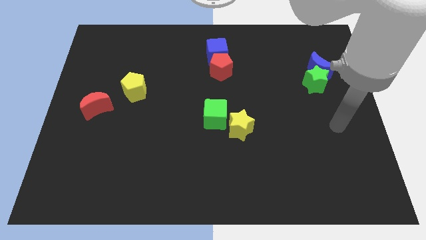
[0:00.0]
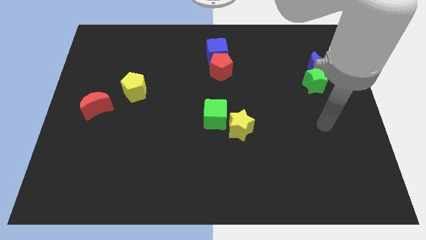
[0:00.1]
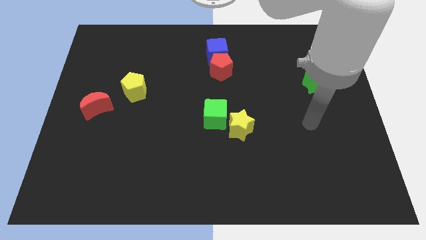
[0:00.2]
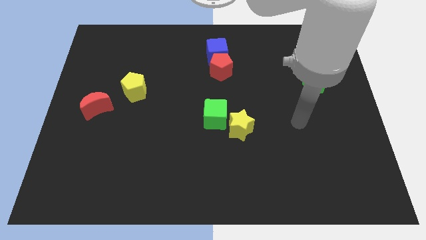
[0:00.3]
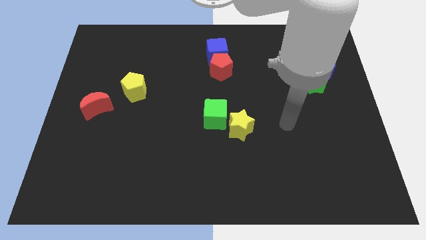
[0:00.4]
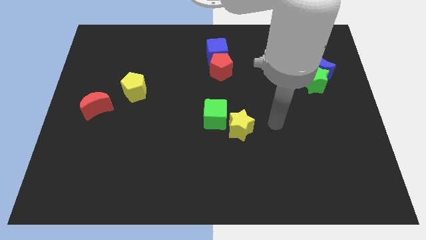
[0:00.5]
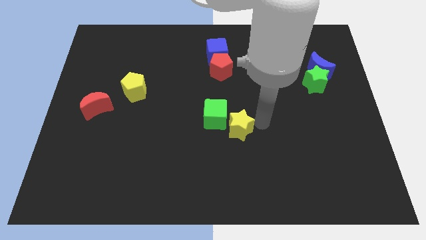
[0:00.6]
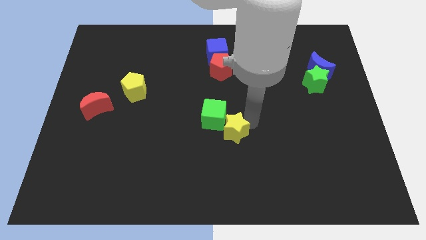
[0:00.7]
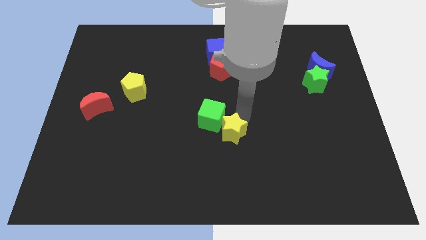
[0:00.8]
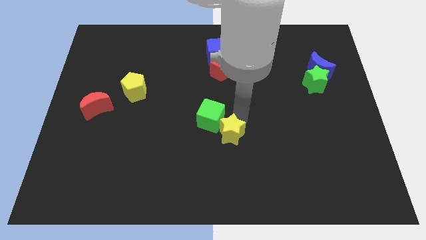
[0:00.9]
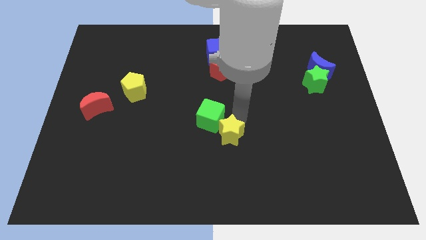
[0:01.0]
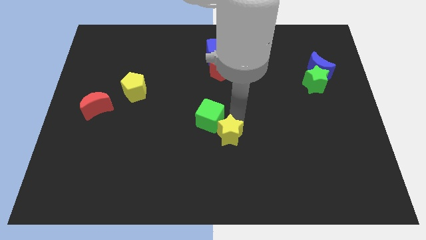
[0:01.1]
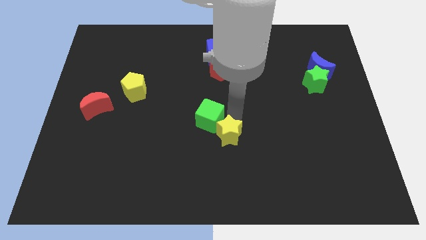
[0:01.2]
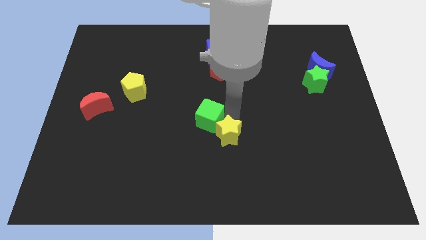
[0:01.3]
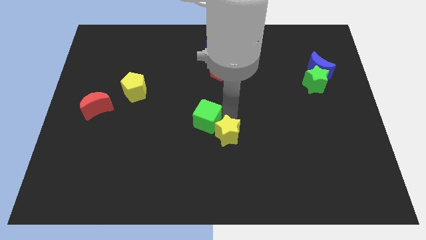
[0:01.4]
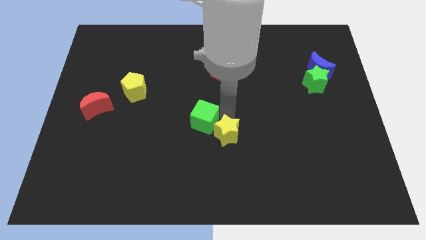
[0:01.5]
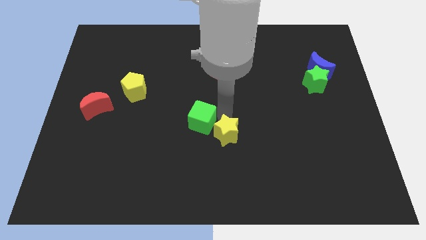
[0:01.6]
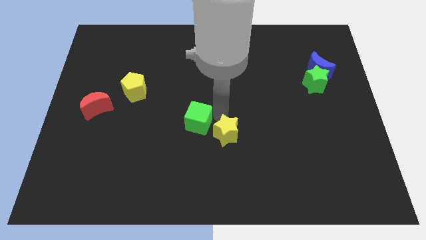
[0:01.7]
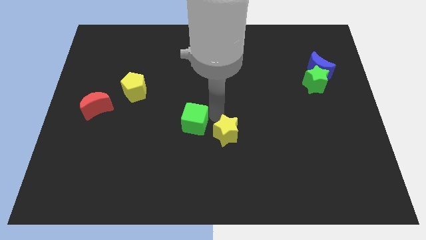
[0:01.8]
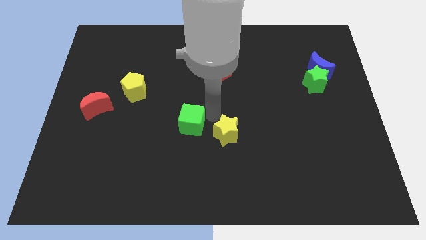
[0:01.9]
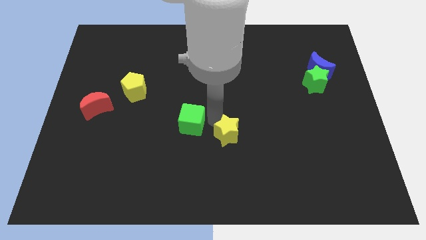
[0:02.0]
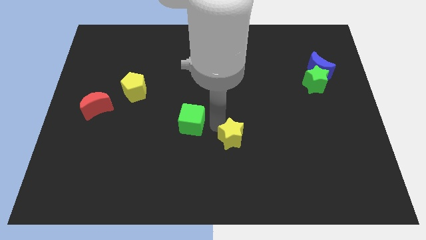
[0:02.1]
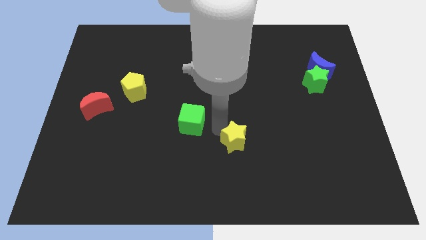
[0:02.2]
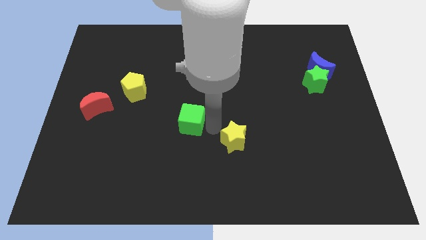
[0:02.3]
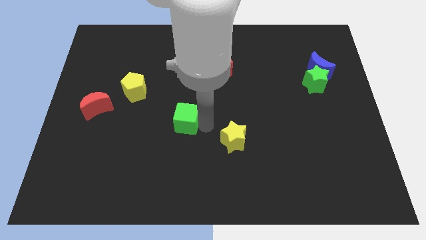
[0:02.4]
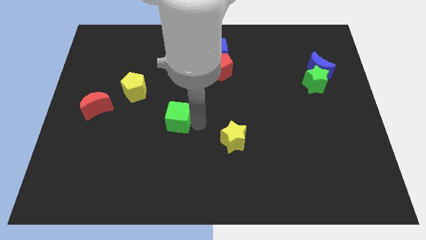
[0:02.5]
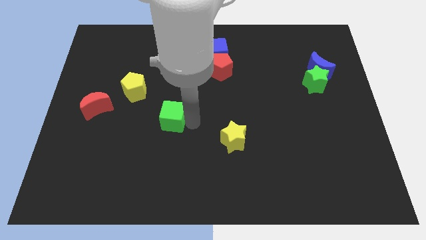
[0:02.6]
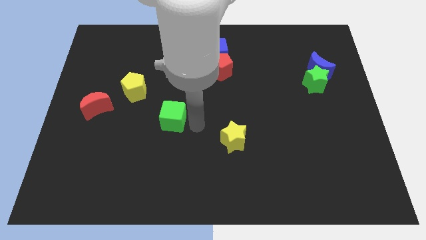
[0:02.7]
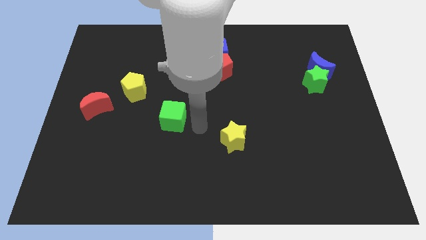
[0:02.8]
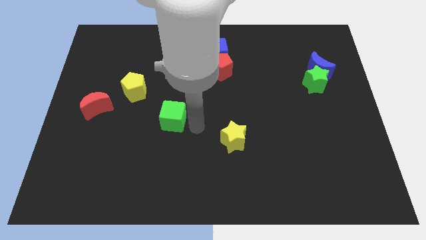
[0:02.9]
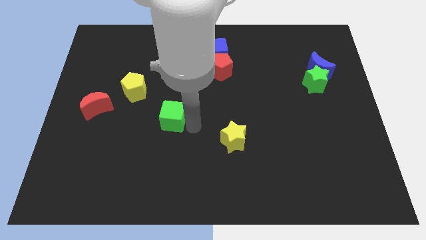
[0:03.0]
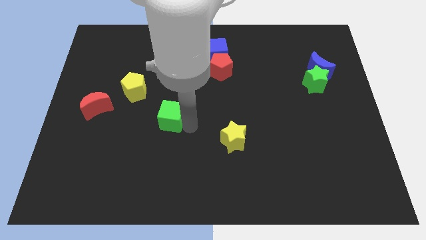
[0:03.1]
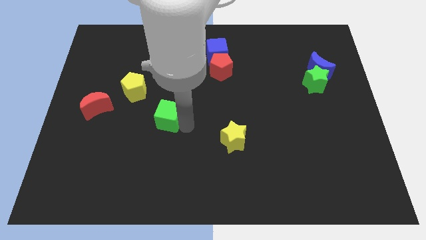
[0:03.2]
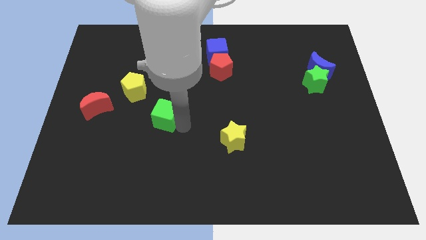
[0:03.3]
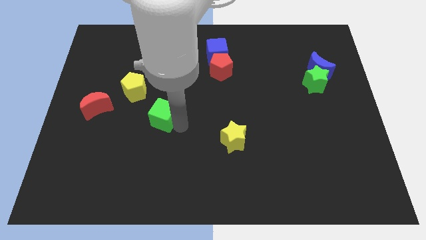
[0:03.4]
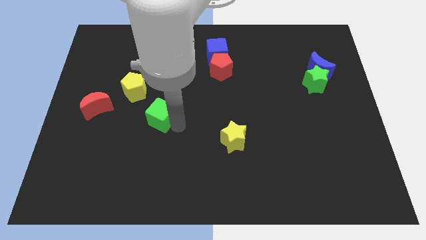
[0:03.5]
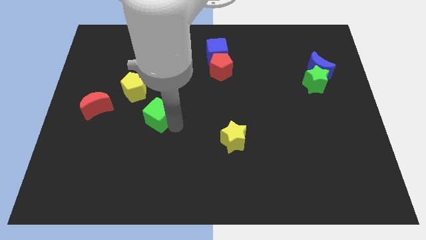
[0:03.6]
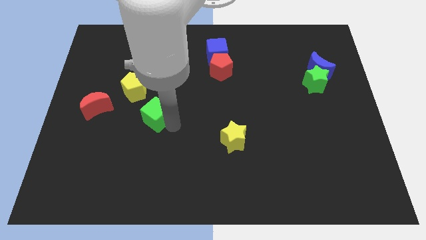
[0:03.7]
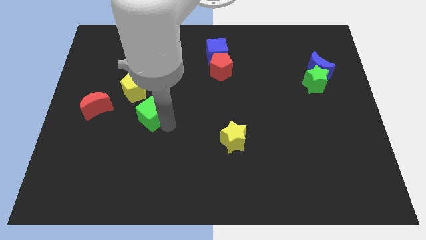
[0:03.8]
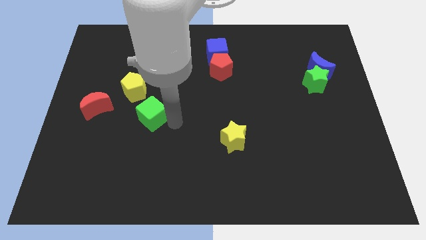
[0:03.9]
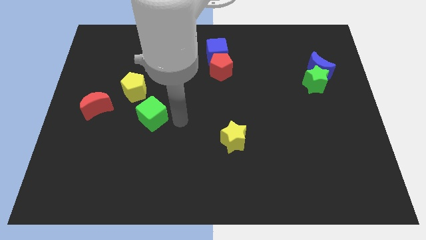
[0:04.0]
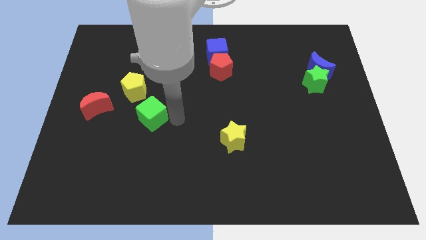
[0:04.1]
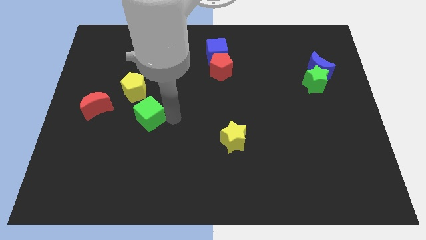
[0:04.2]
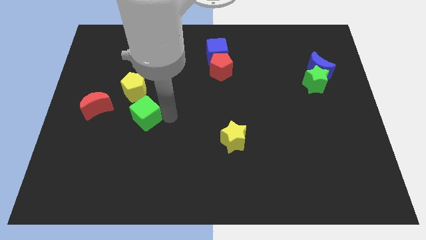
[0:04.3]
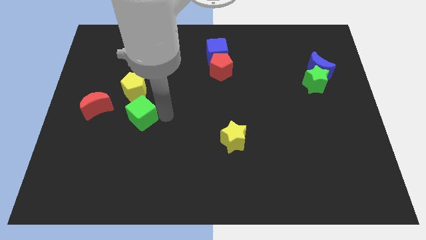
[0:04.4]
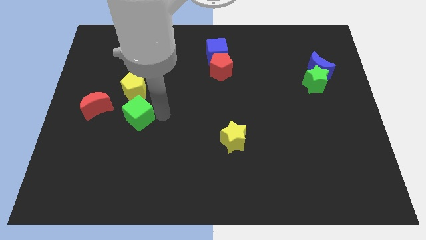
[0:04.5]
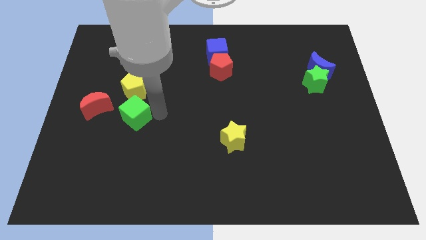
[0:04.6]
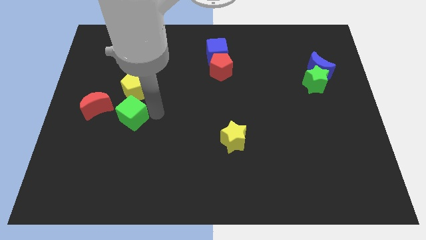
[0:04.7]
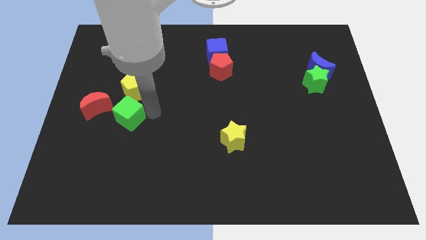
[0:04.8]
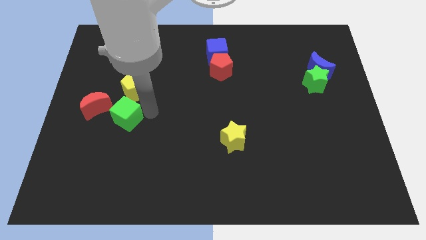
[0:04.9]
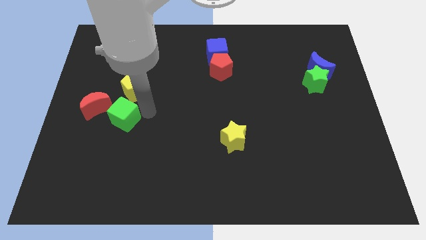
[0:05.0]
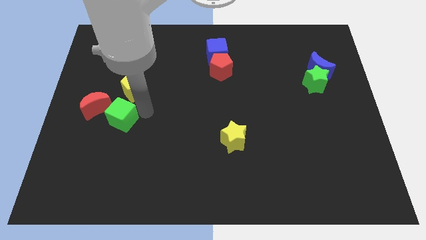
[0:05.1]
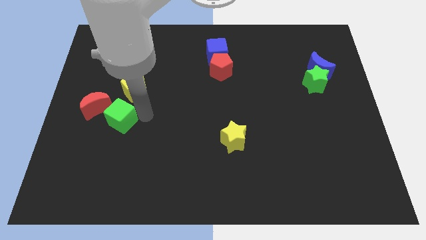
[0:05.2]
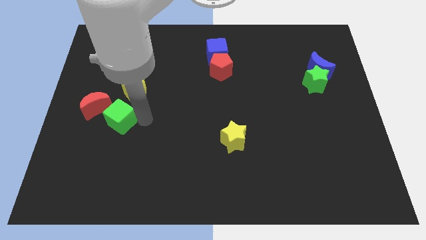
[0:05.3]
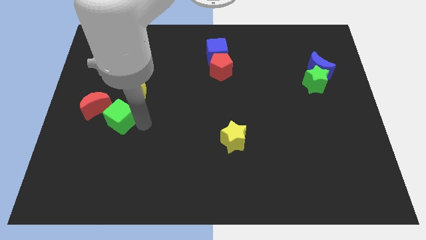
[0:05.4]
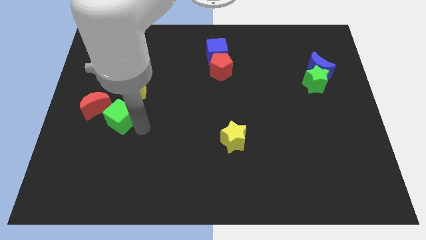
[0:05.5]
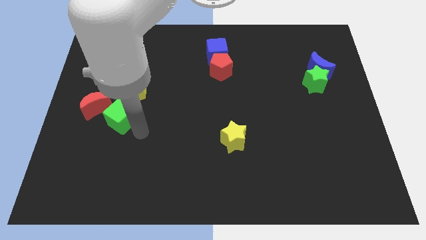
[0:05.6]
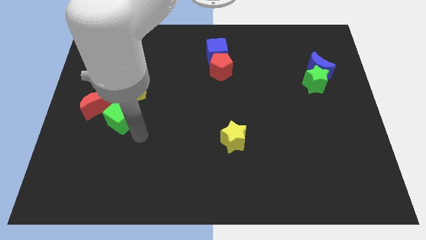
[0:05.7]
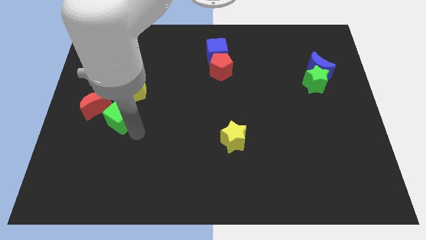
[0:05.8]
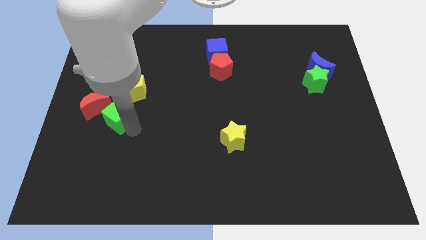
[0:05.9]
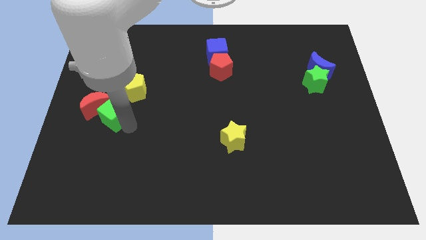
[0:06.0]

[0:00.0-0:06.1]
slide the green cube close to the red moon

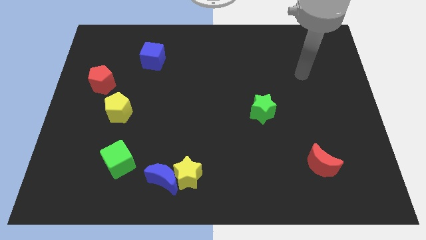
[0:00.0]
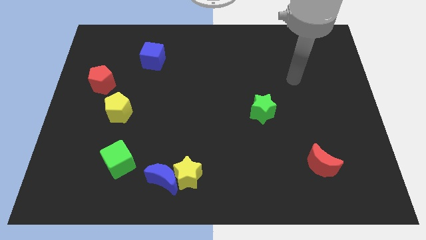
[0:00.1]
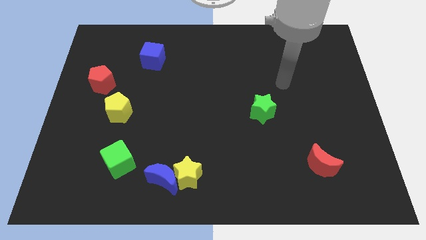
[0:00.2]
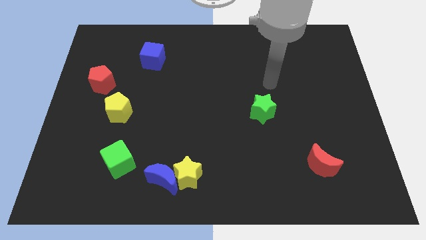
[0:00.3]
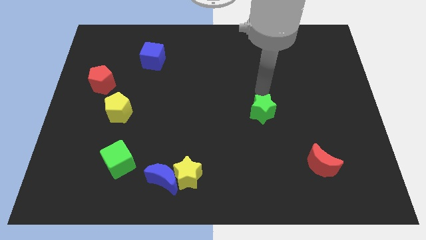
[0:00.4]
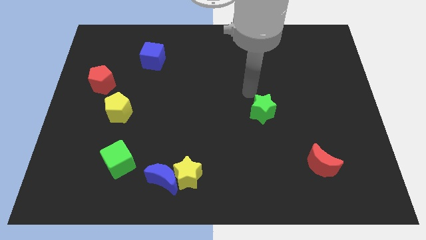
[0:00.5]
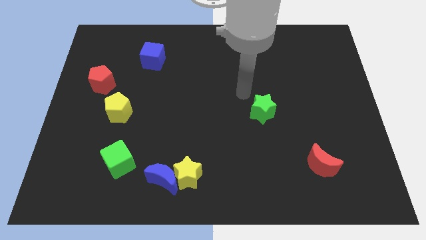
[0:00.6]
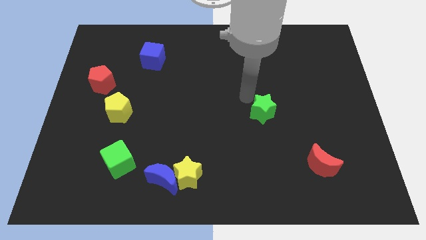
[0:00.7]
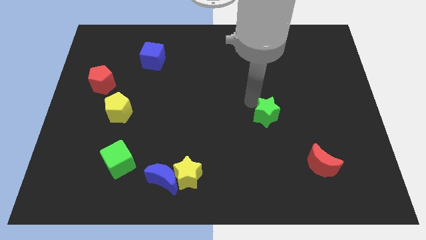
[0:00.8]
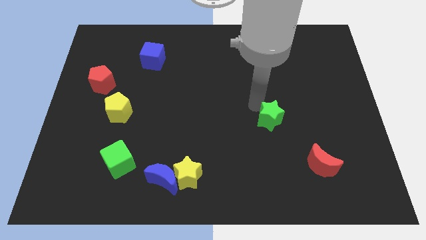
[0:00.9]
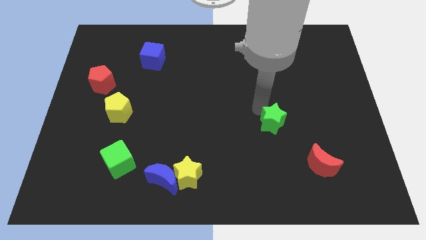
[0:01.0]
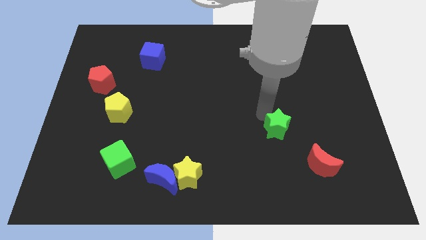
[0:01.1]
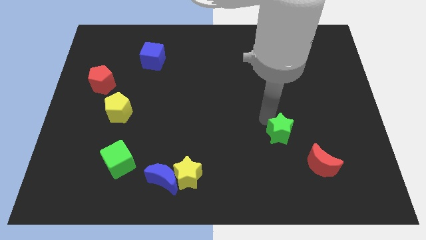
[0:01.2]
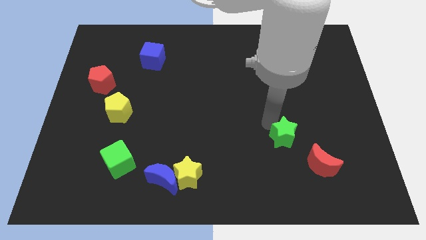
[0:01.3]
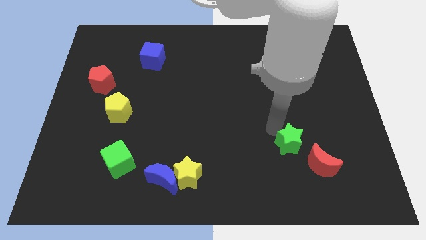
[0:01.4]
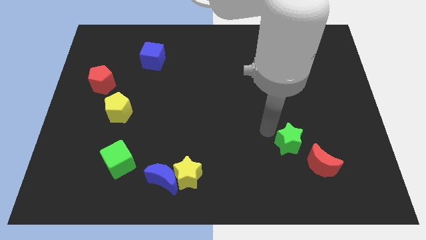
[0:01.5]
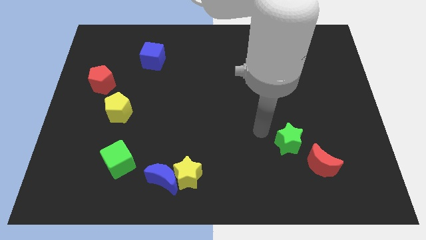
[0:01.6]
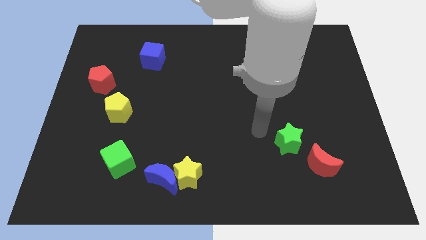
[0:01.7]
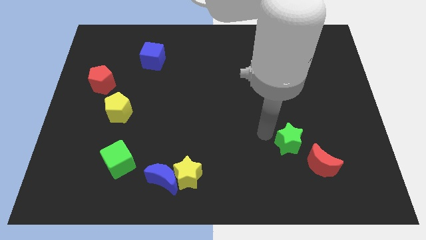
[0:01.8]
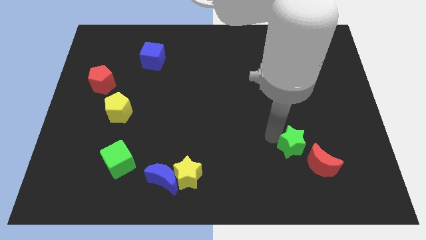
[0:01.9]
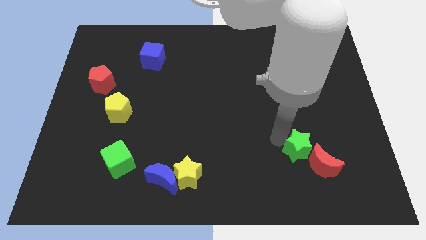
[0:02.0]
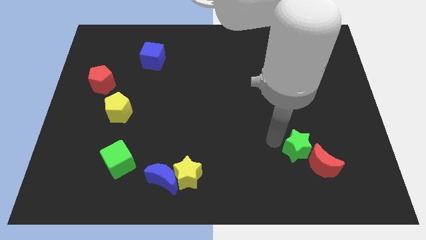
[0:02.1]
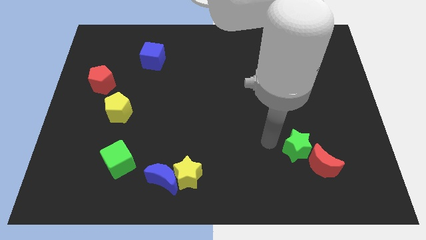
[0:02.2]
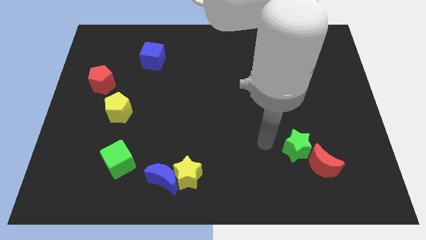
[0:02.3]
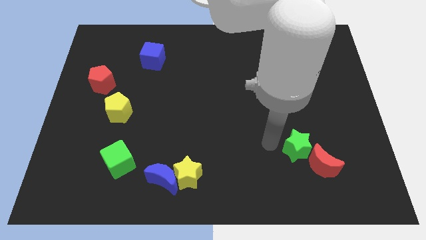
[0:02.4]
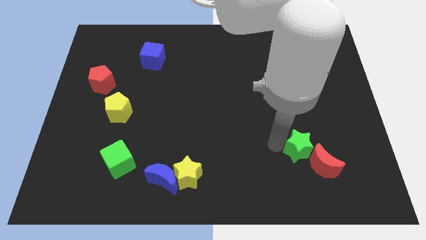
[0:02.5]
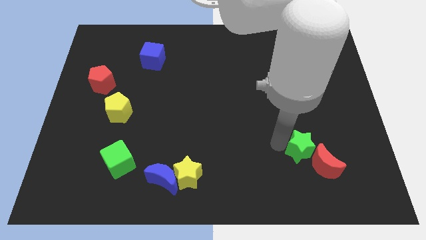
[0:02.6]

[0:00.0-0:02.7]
slide the green star towards the red moon
